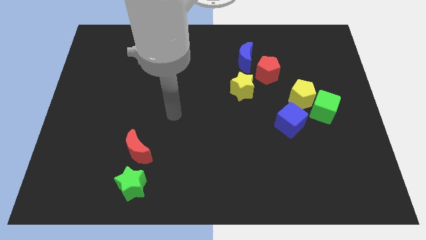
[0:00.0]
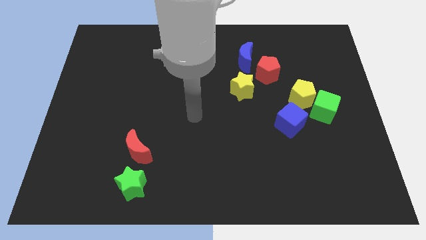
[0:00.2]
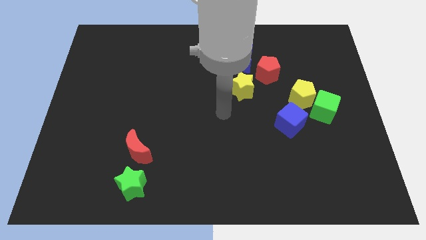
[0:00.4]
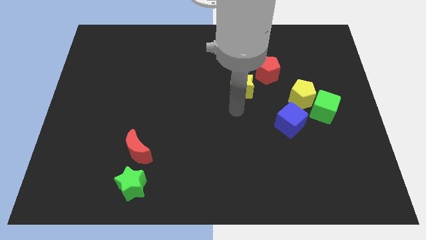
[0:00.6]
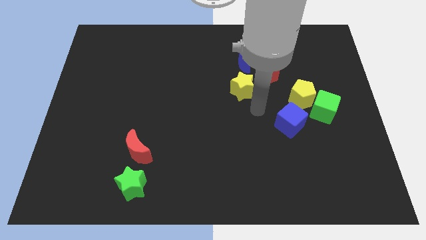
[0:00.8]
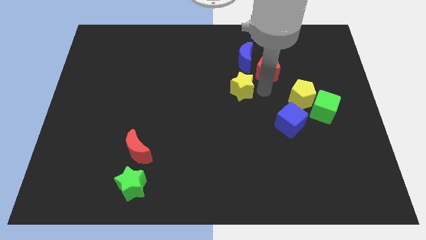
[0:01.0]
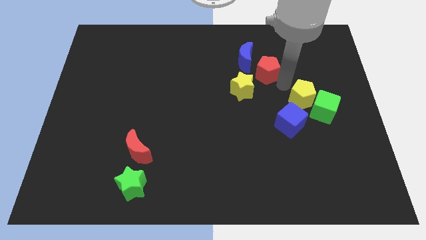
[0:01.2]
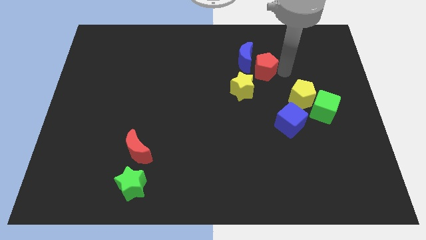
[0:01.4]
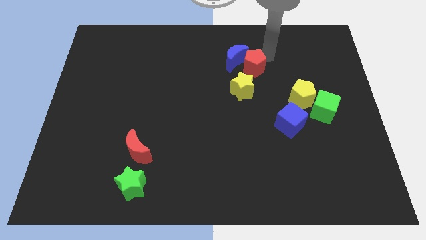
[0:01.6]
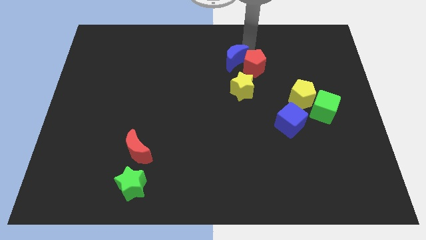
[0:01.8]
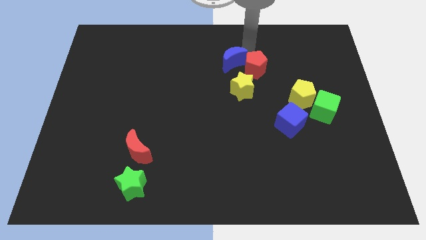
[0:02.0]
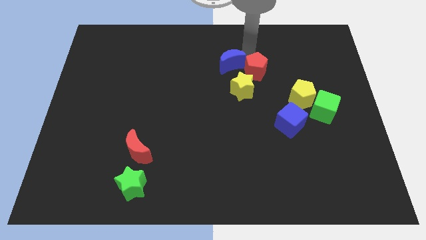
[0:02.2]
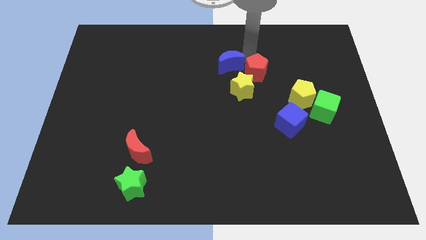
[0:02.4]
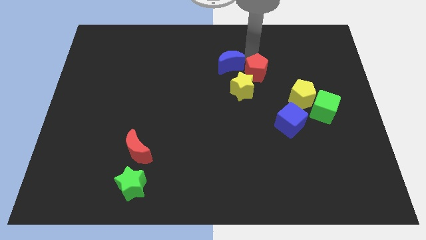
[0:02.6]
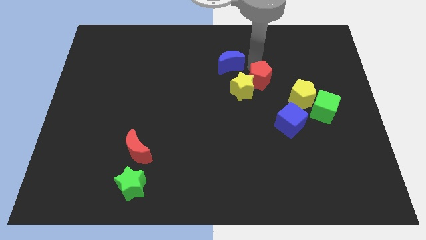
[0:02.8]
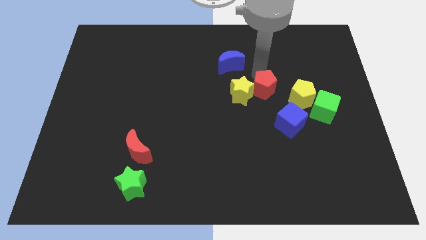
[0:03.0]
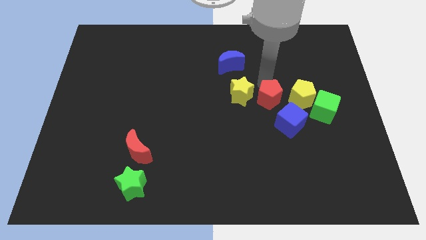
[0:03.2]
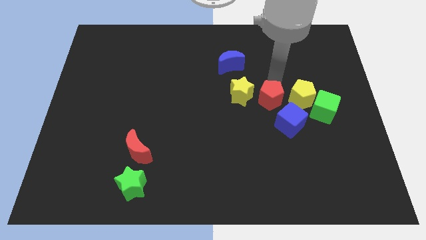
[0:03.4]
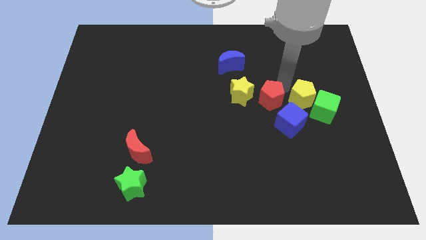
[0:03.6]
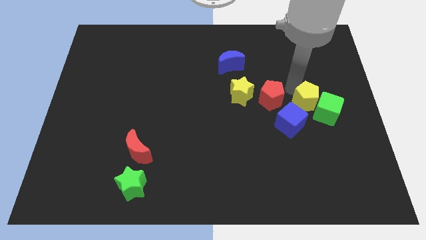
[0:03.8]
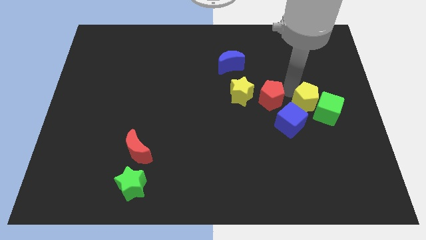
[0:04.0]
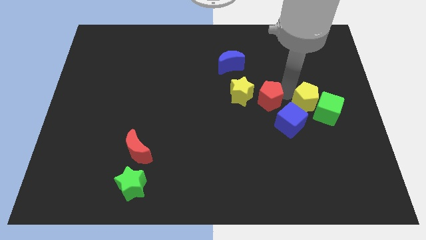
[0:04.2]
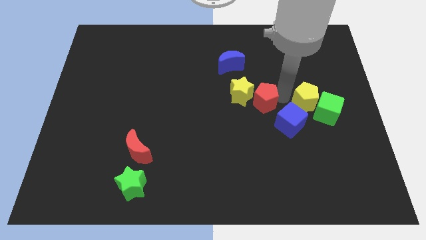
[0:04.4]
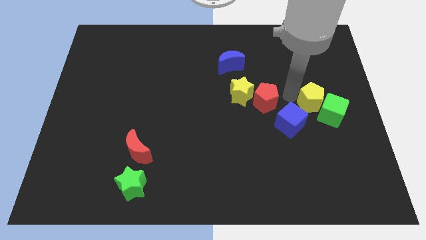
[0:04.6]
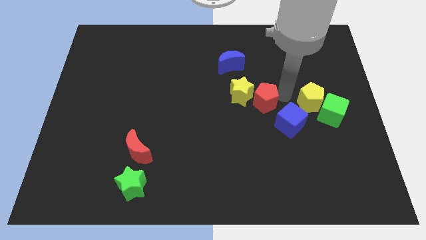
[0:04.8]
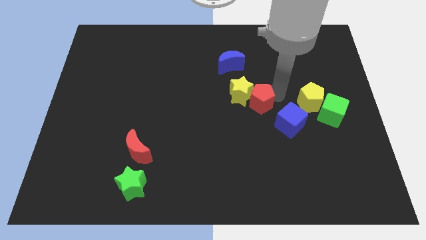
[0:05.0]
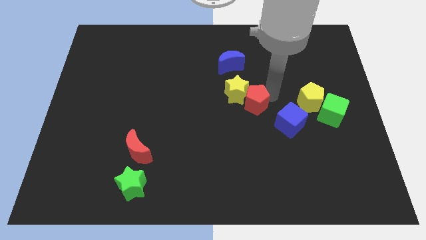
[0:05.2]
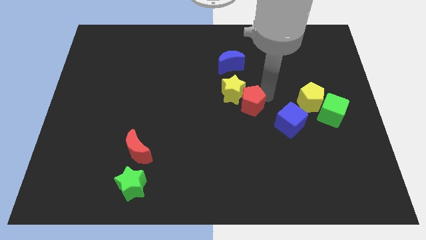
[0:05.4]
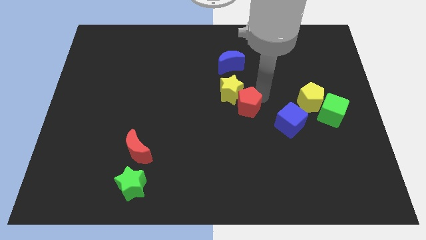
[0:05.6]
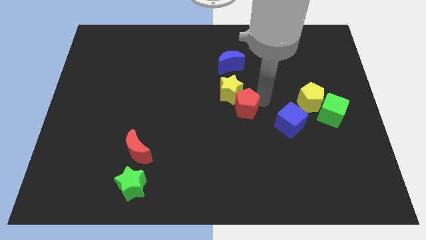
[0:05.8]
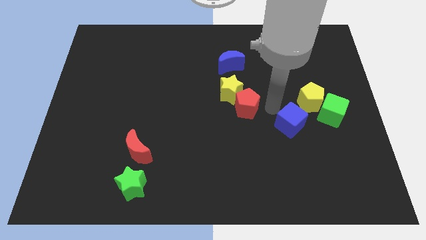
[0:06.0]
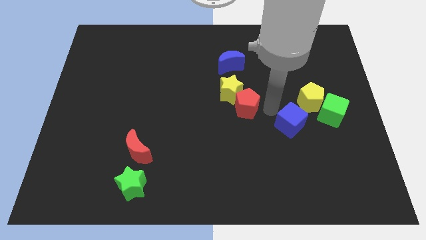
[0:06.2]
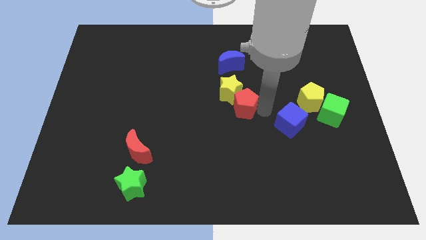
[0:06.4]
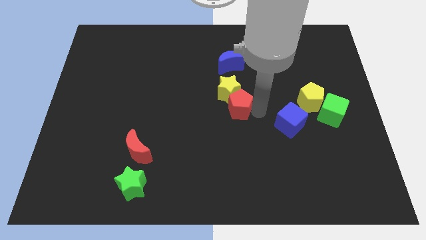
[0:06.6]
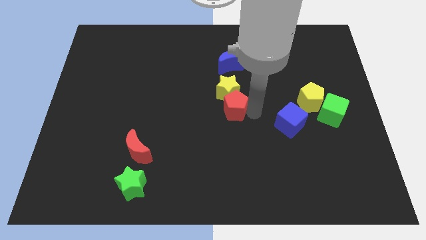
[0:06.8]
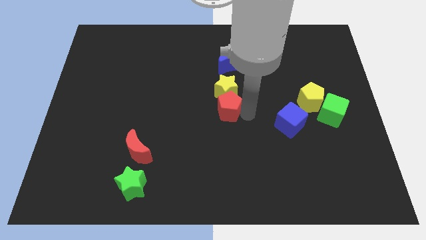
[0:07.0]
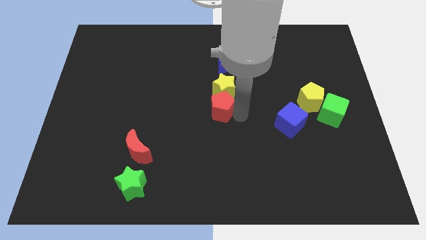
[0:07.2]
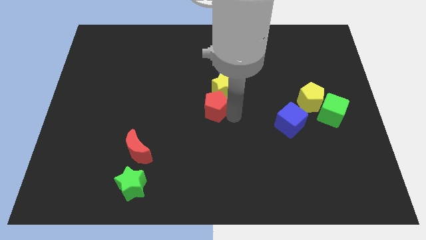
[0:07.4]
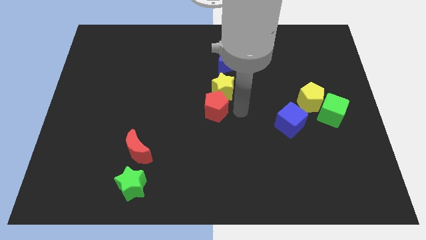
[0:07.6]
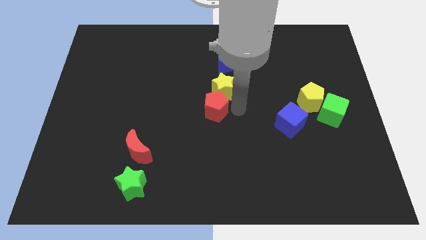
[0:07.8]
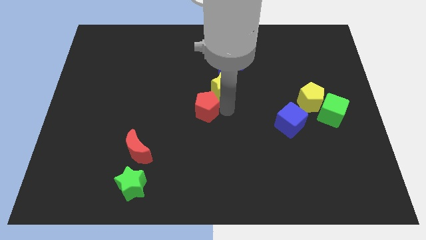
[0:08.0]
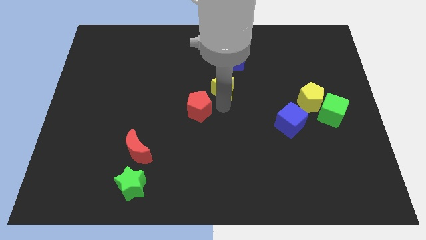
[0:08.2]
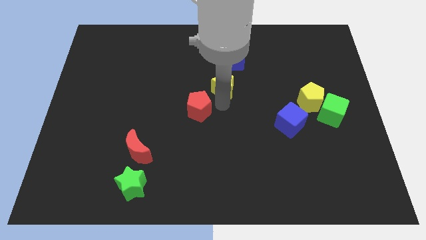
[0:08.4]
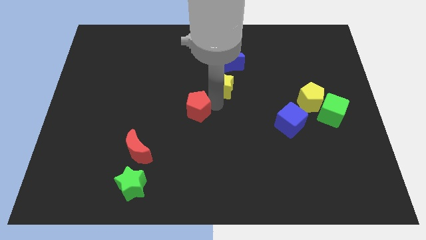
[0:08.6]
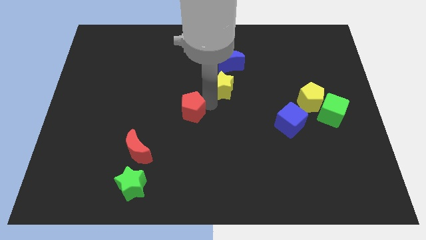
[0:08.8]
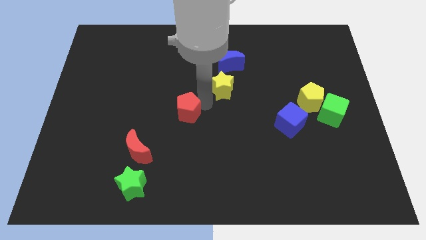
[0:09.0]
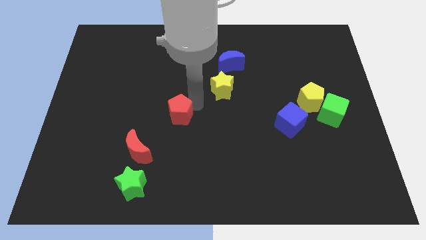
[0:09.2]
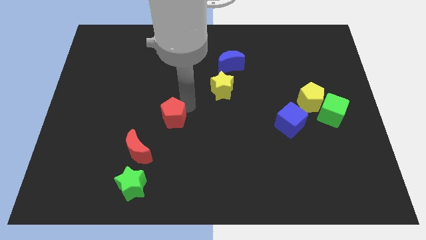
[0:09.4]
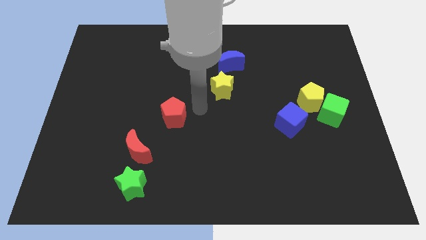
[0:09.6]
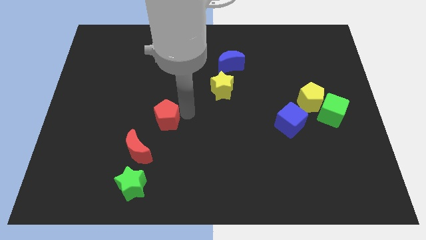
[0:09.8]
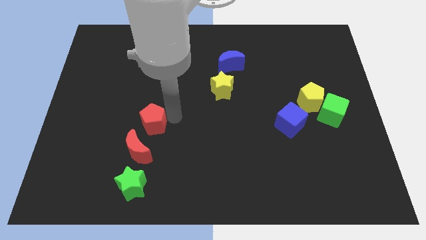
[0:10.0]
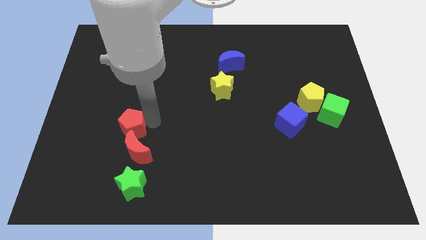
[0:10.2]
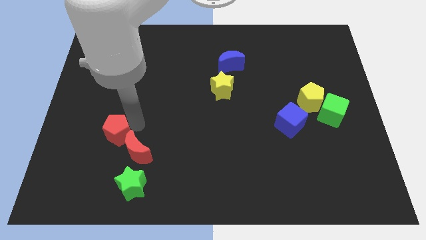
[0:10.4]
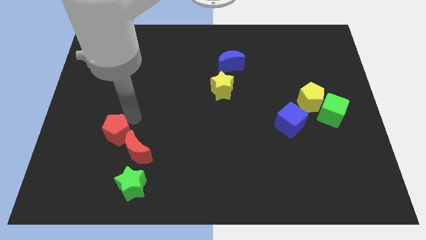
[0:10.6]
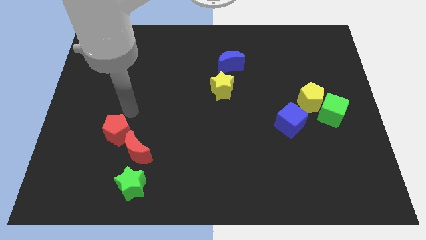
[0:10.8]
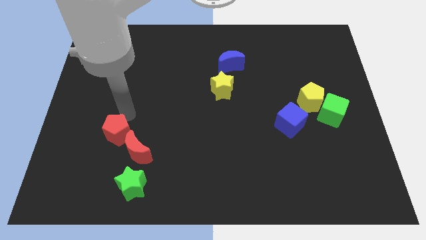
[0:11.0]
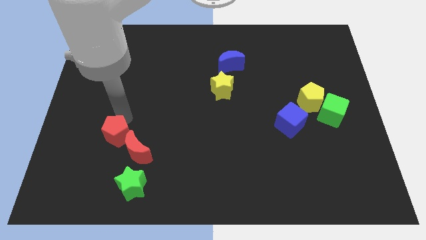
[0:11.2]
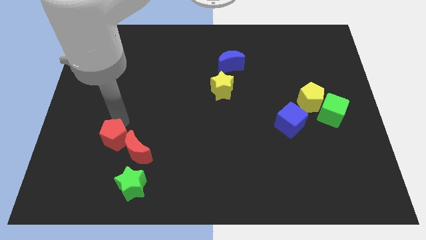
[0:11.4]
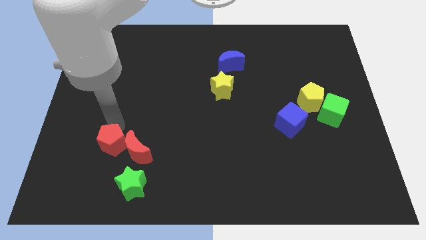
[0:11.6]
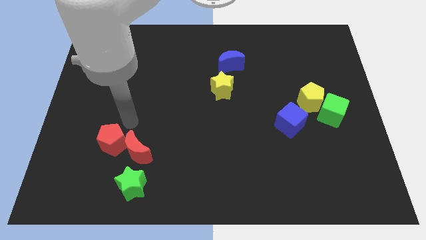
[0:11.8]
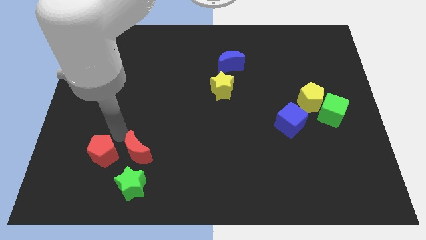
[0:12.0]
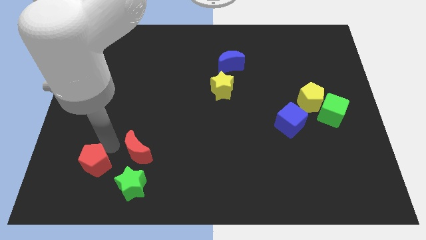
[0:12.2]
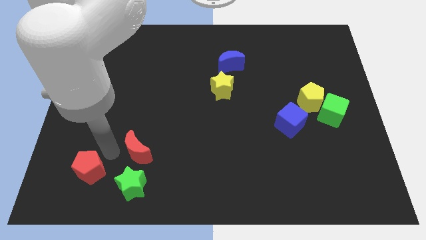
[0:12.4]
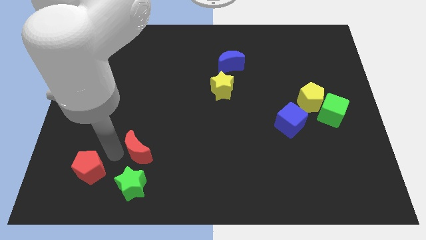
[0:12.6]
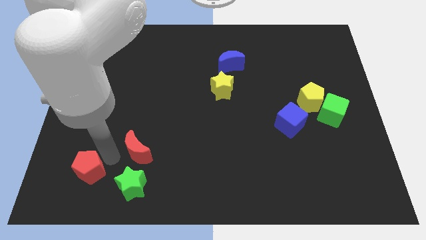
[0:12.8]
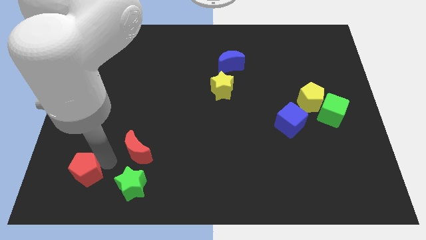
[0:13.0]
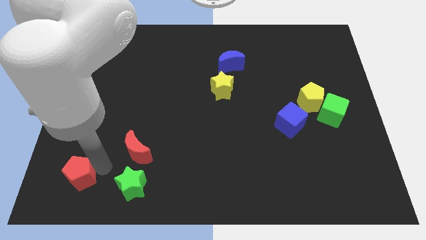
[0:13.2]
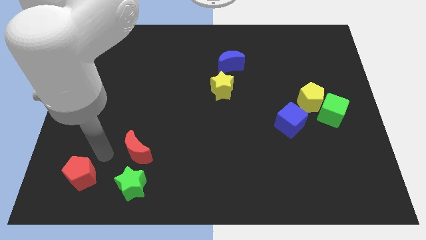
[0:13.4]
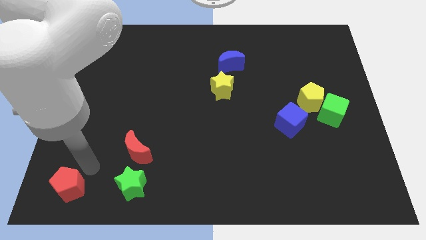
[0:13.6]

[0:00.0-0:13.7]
slide the red pentagon to the bottom left of the board
